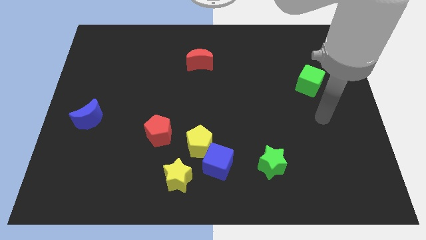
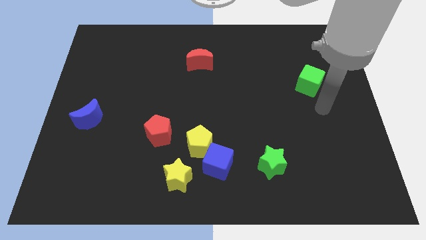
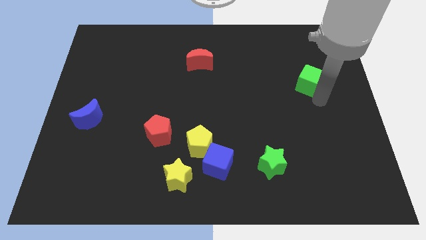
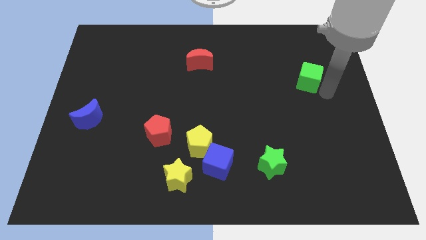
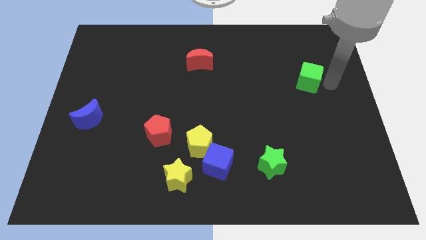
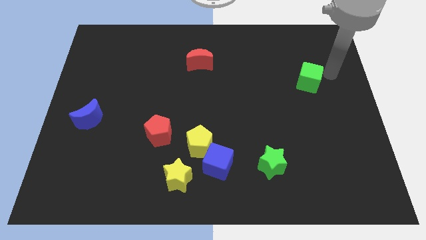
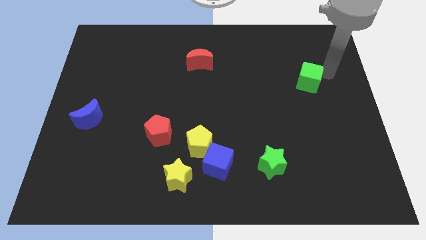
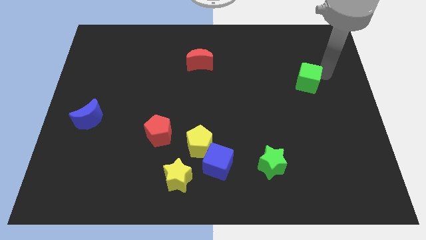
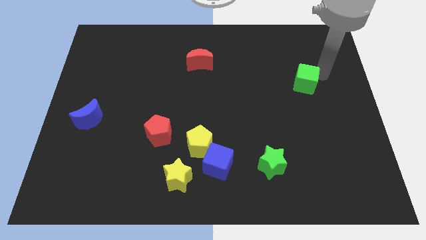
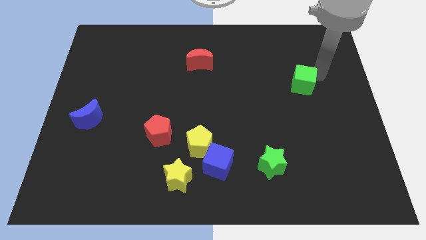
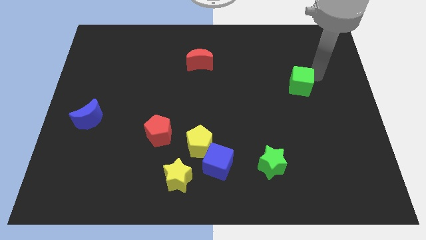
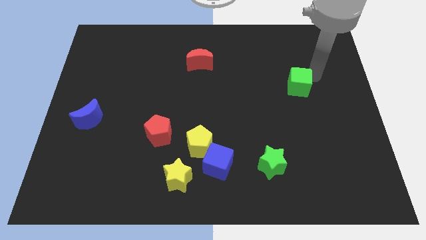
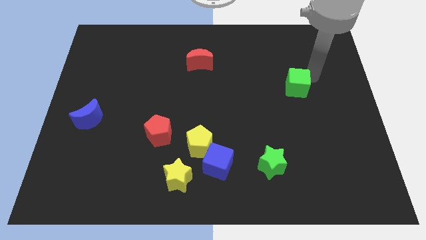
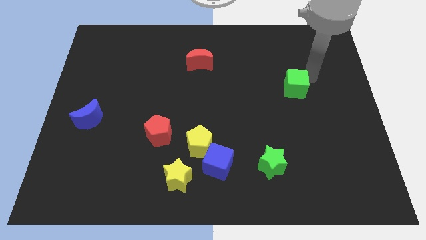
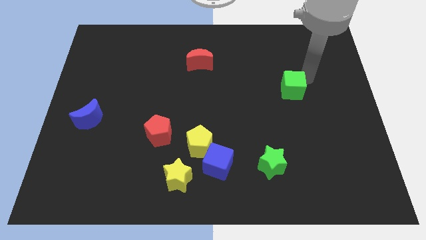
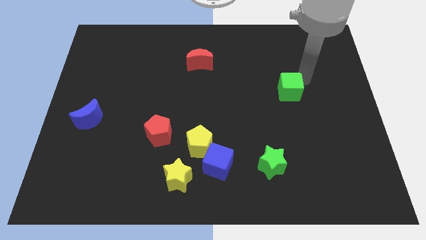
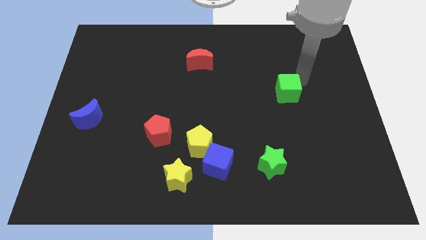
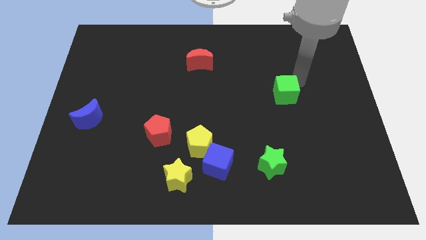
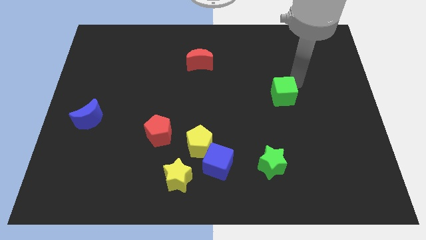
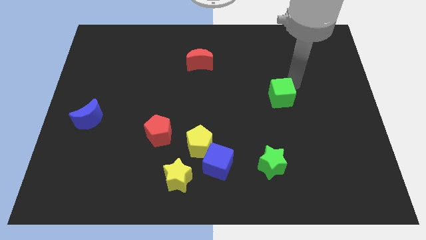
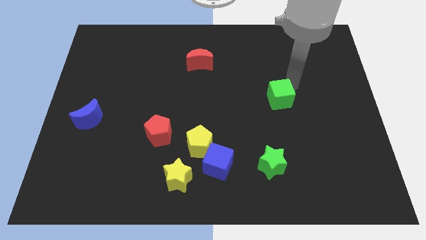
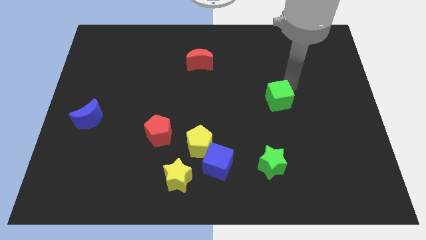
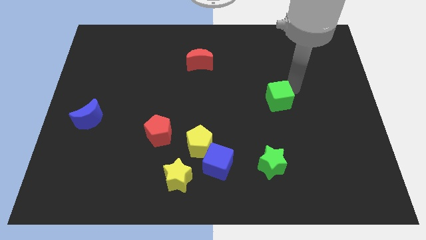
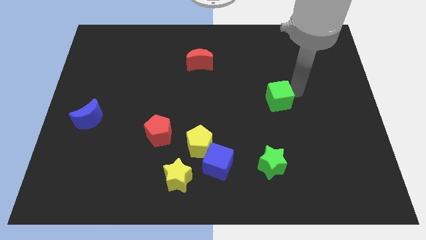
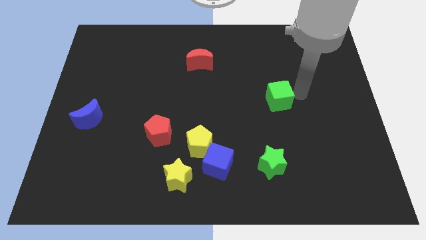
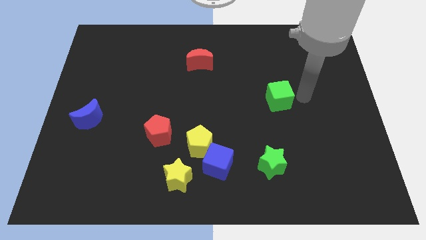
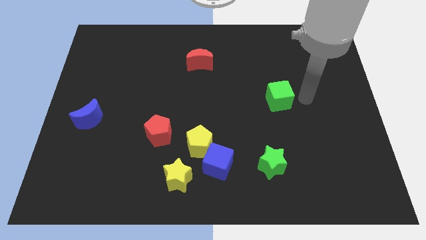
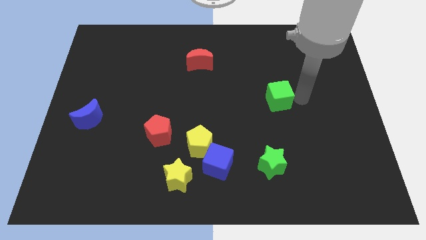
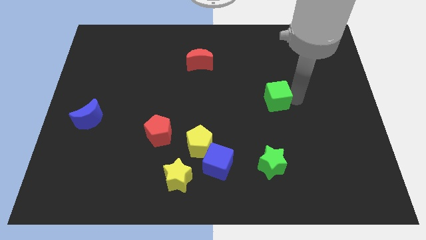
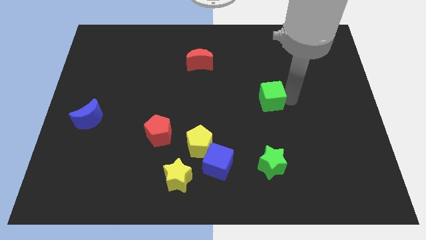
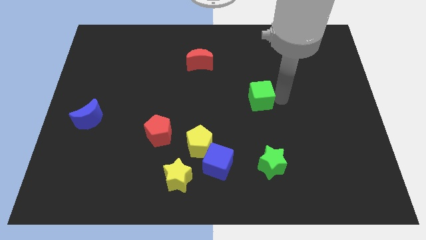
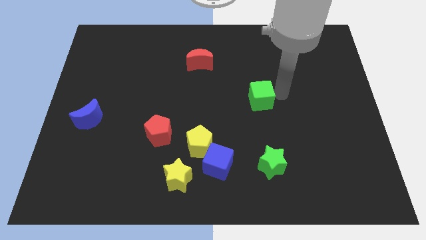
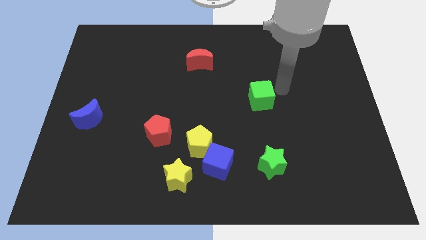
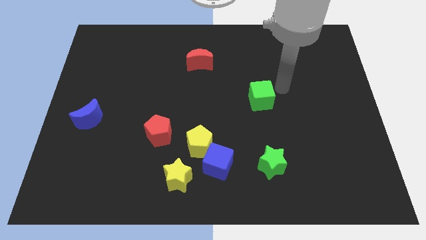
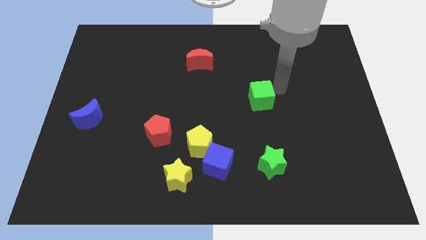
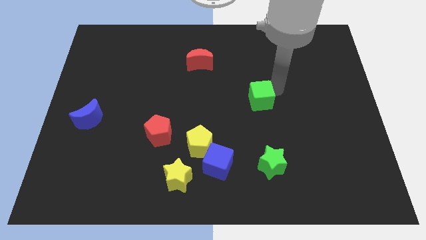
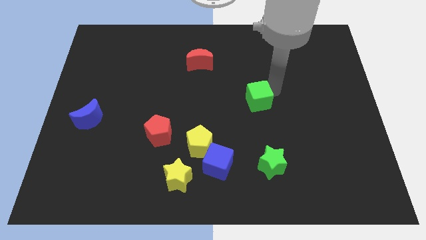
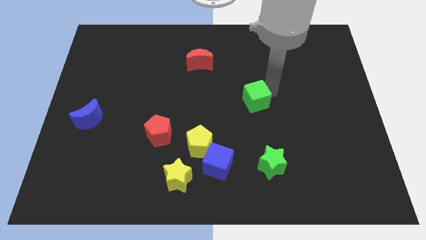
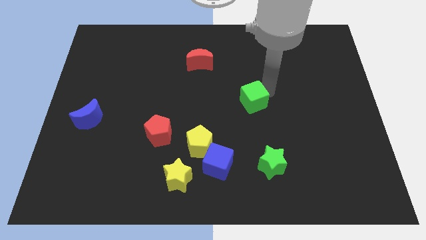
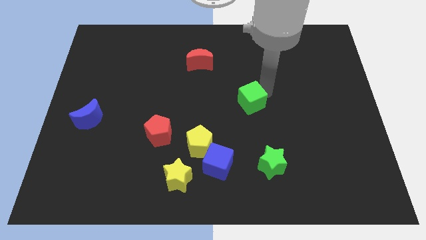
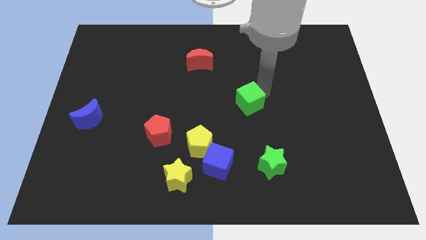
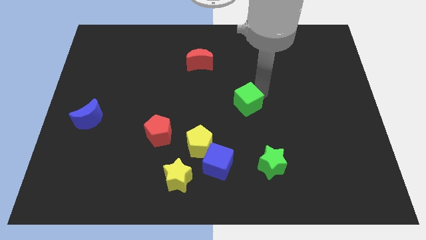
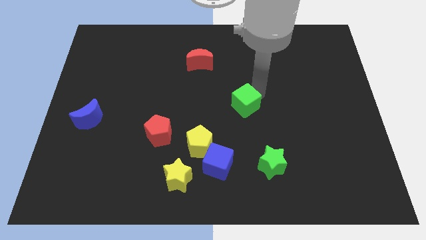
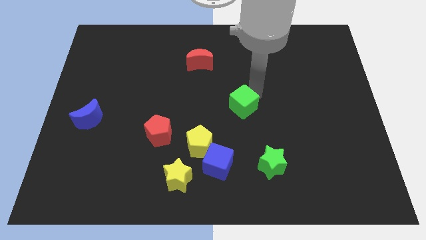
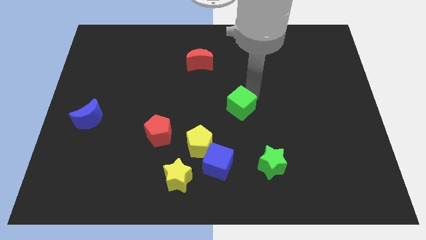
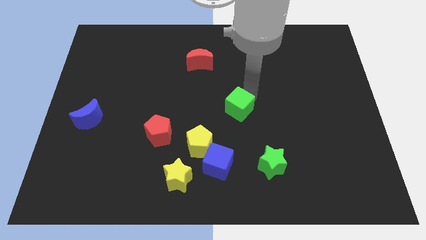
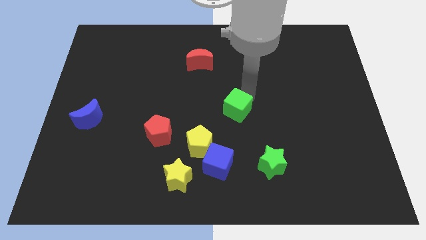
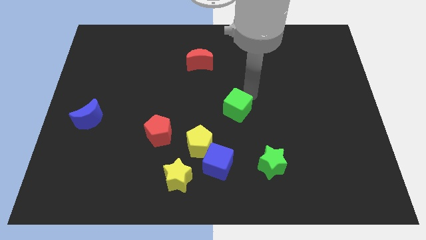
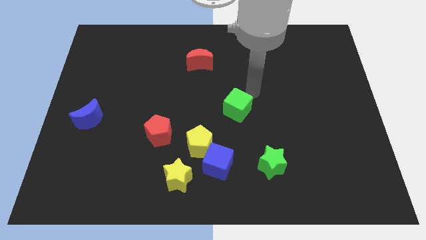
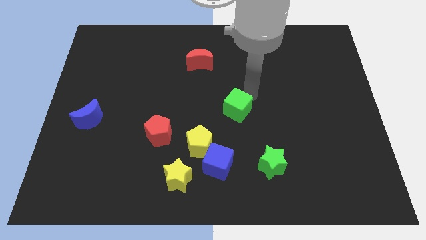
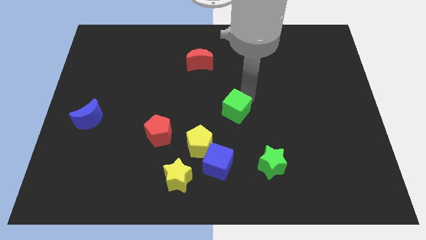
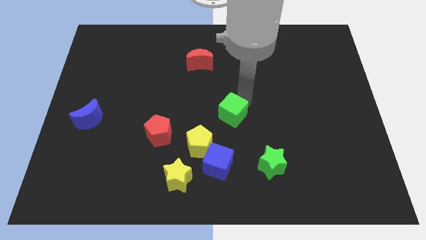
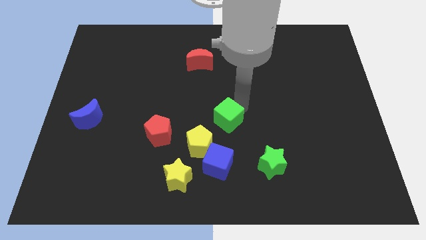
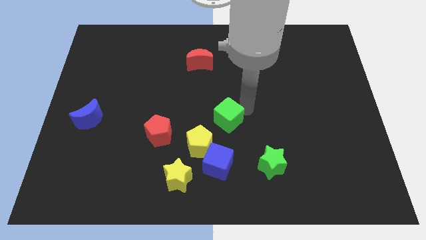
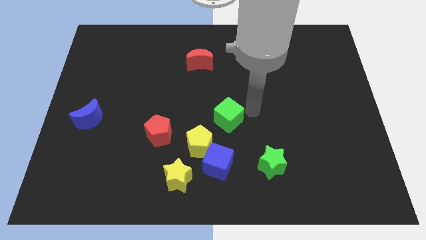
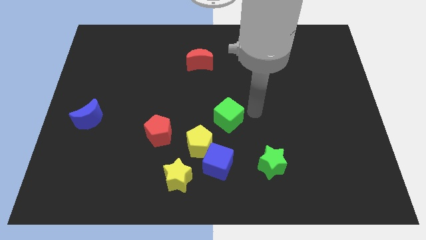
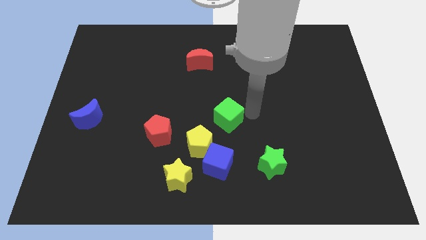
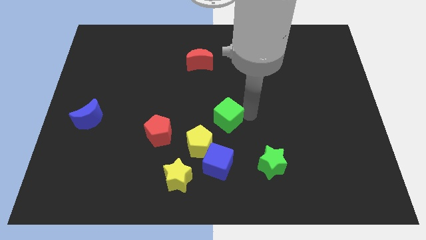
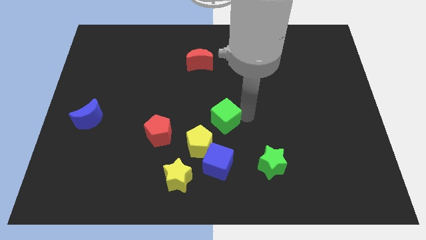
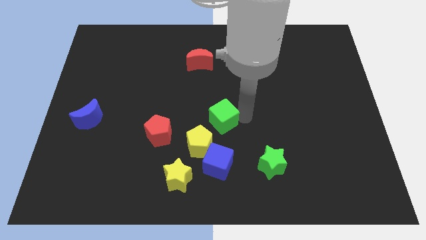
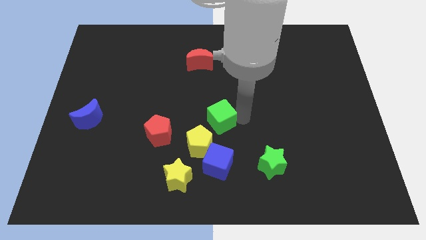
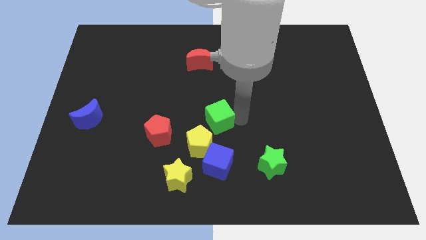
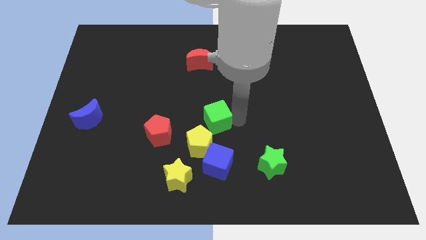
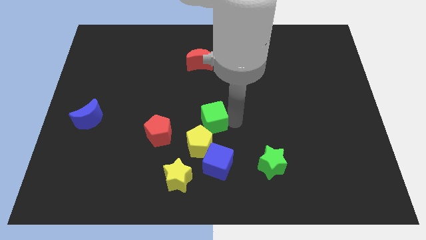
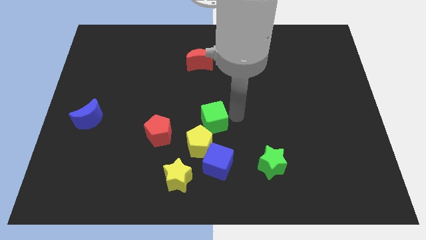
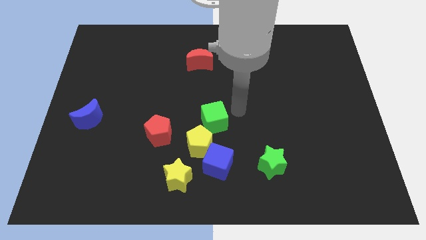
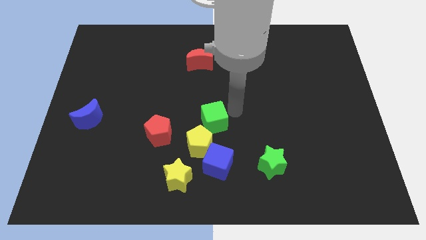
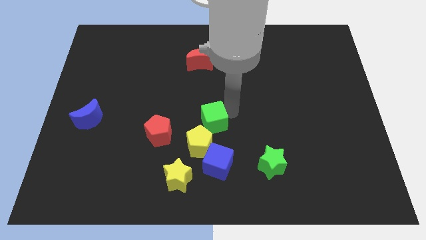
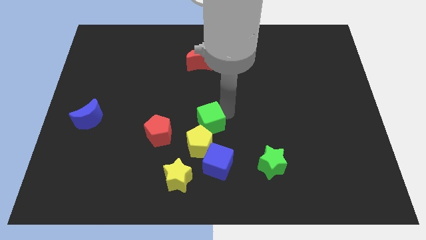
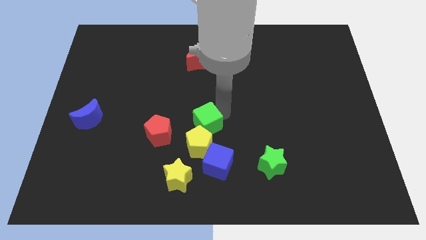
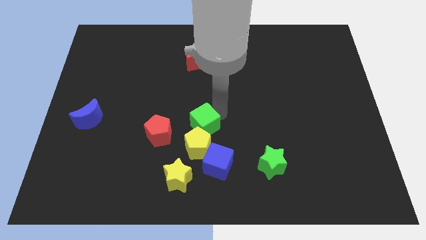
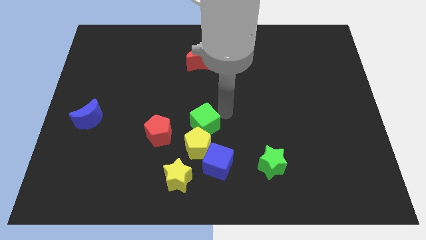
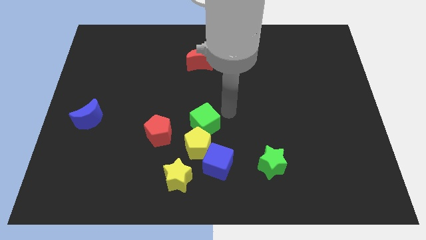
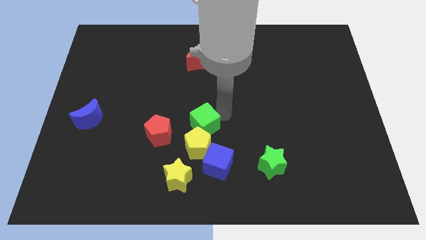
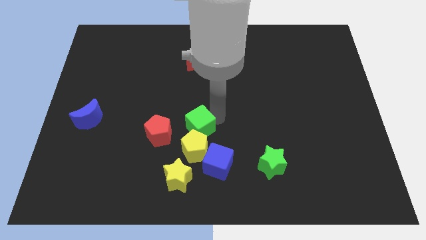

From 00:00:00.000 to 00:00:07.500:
move the green cube to the top of the yellow star
